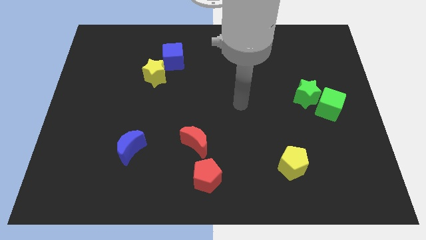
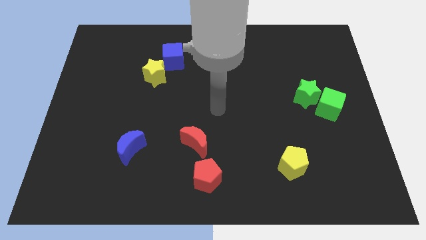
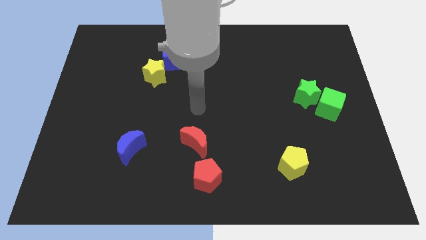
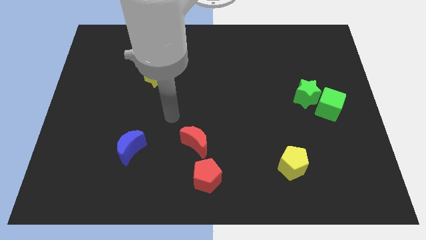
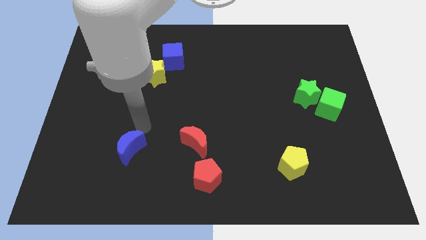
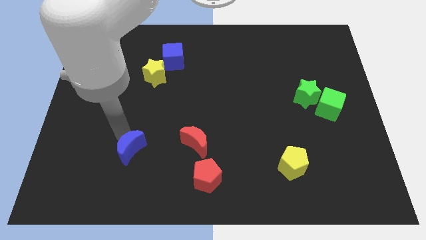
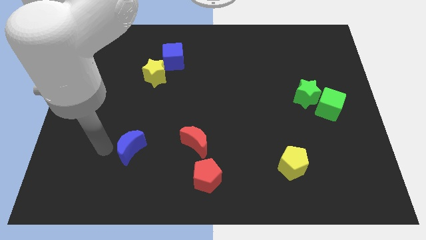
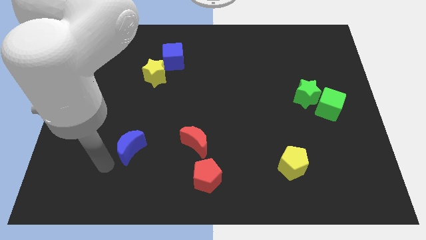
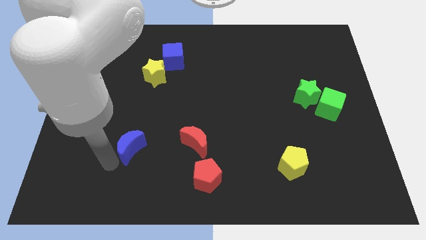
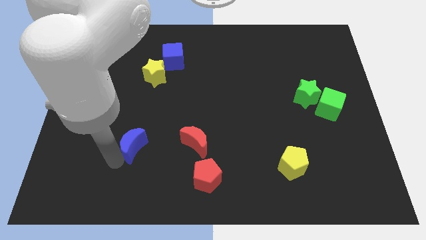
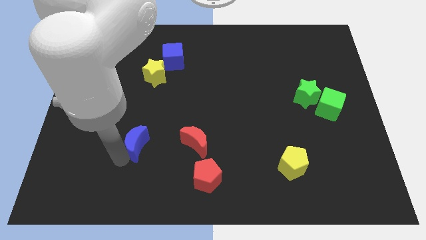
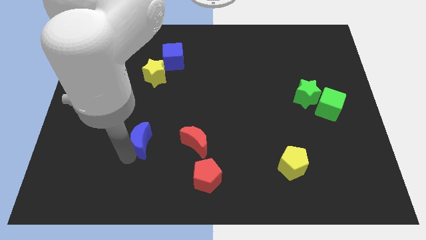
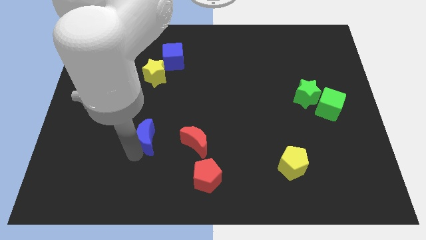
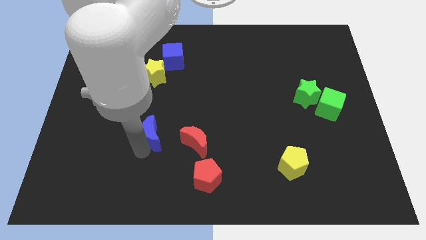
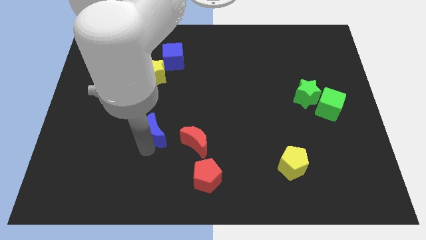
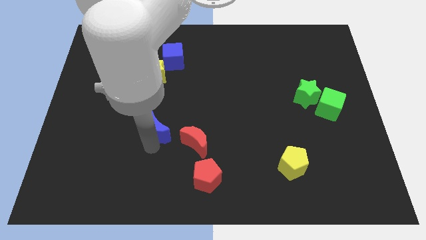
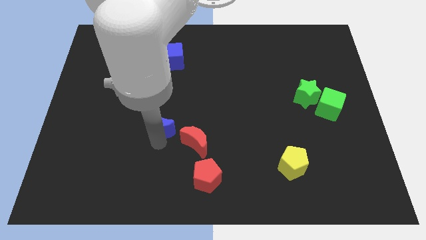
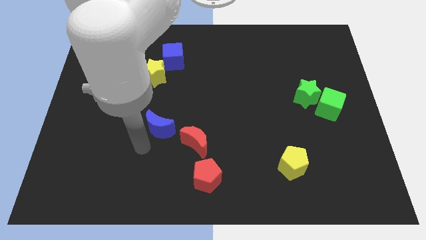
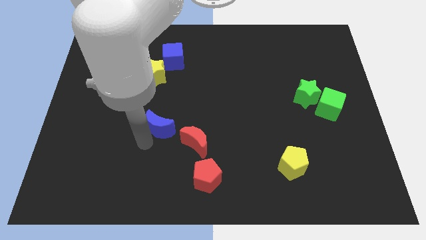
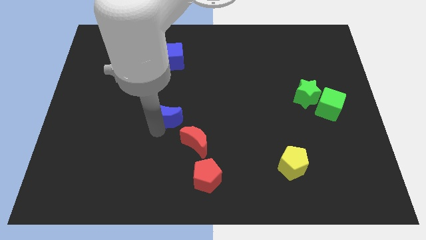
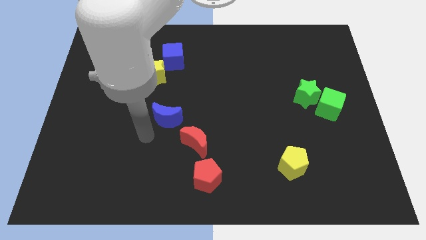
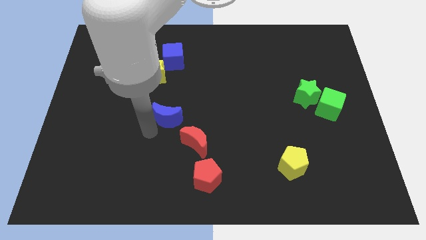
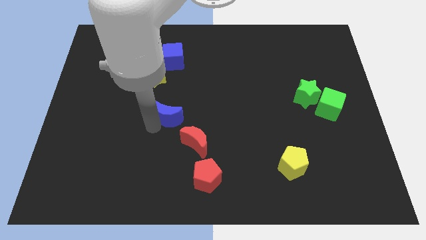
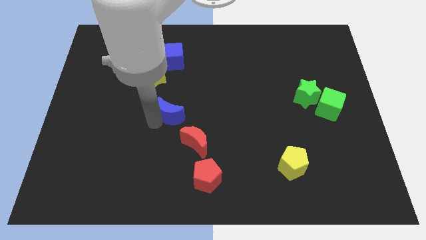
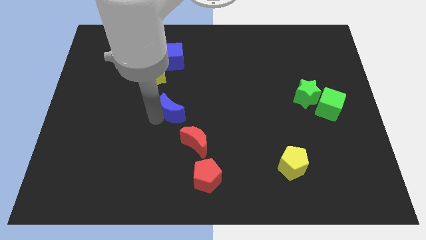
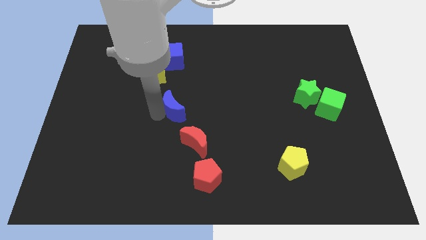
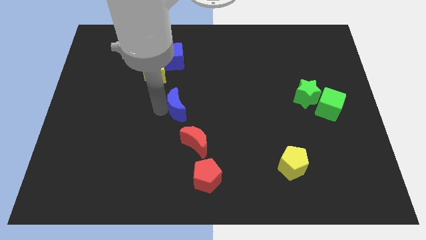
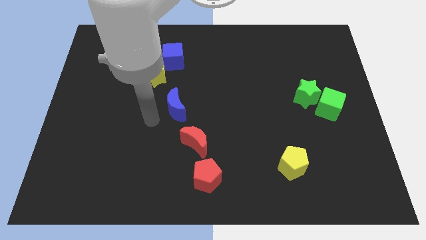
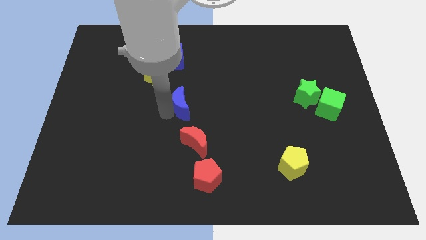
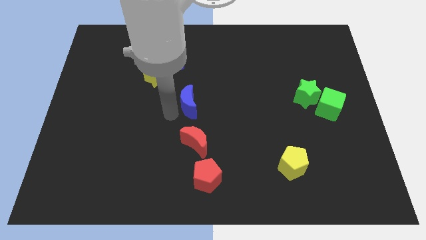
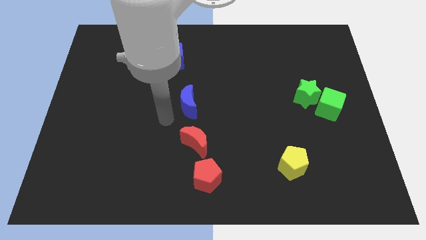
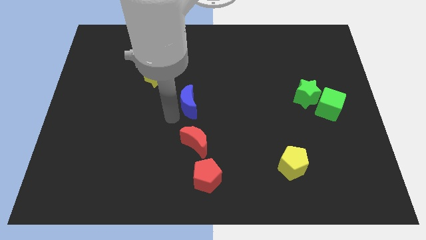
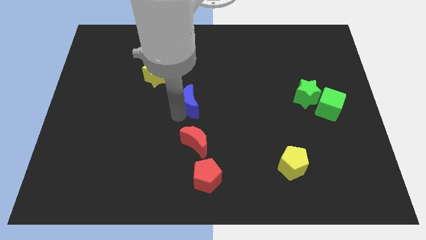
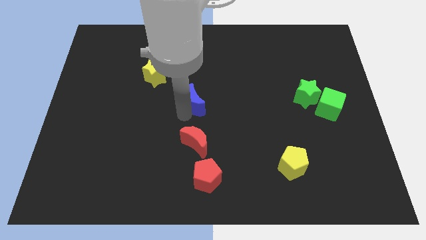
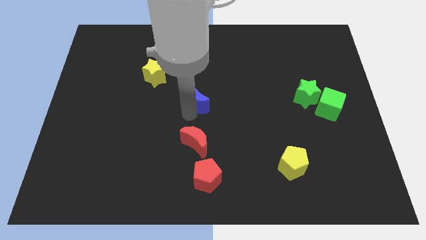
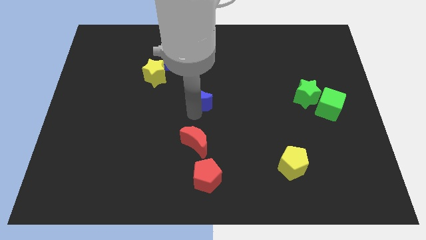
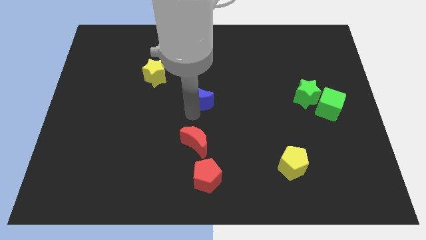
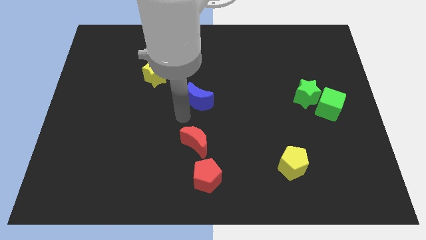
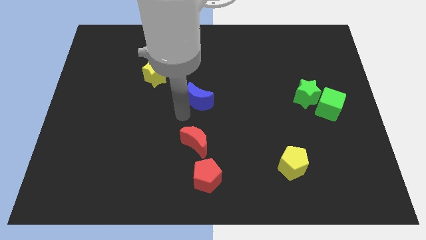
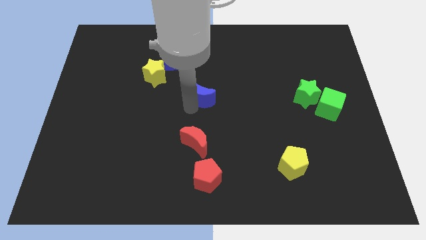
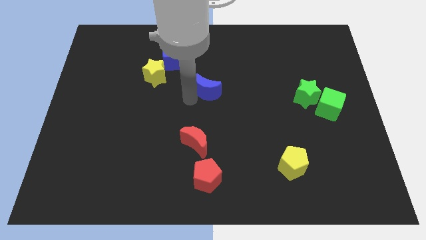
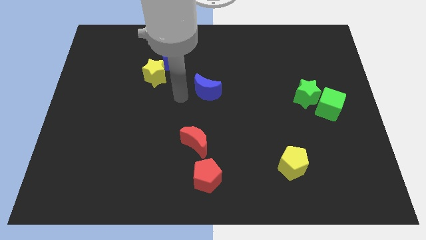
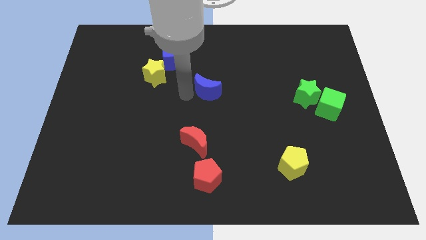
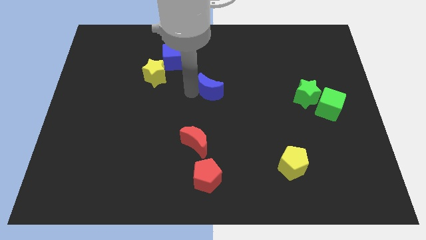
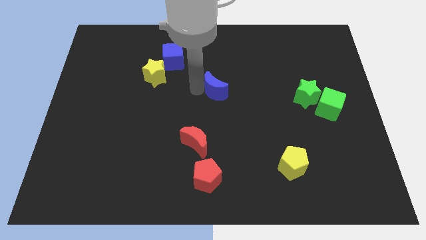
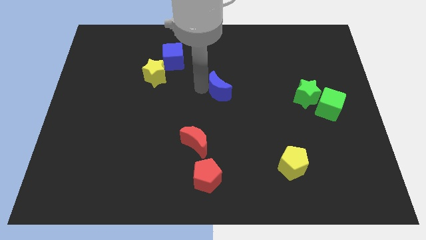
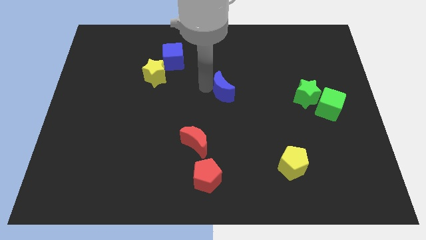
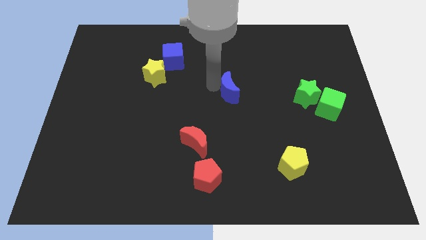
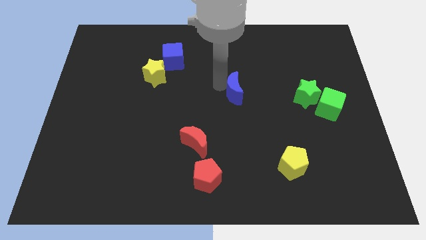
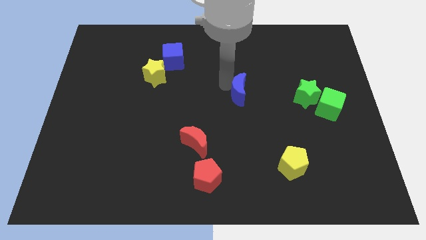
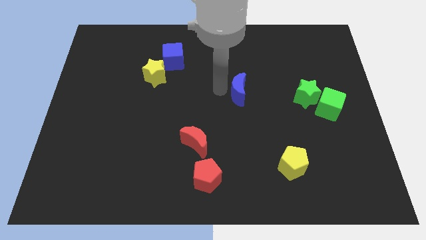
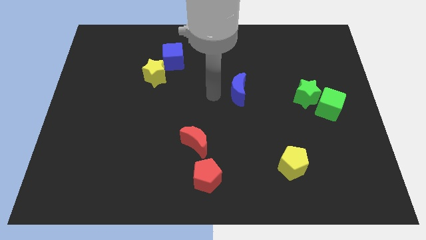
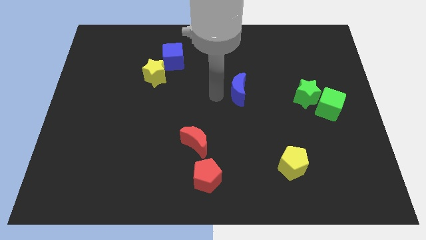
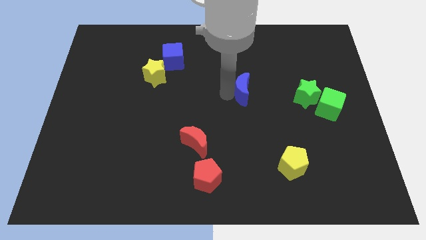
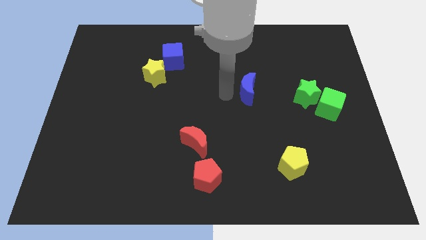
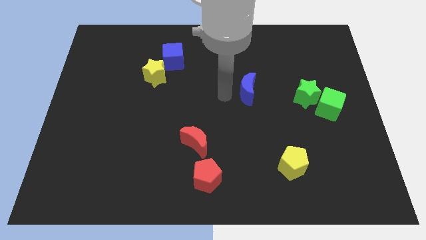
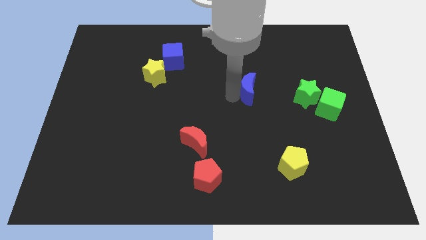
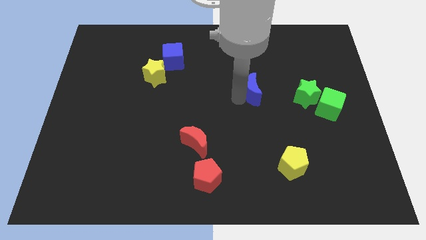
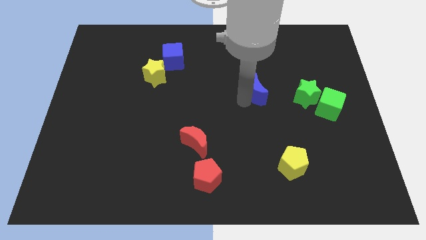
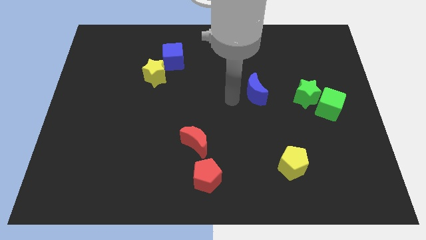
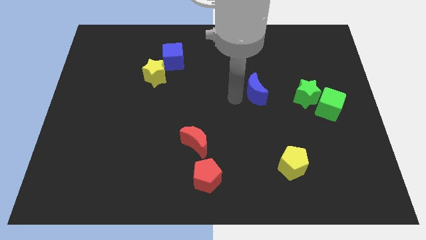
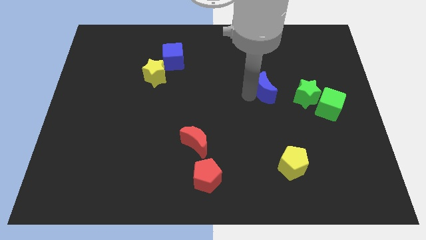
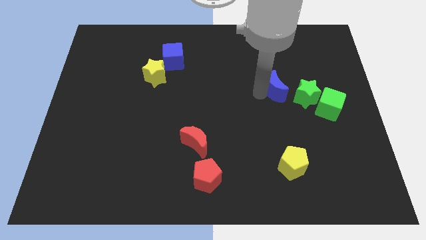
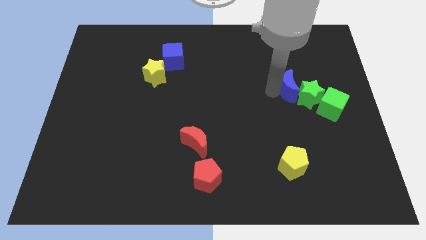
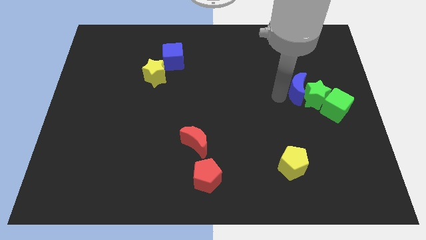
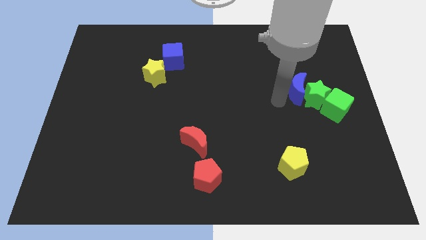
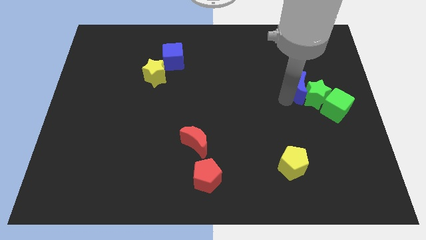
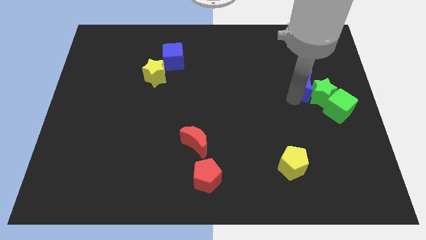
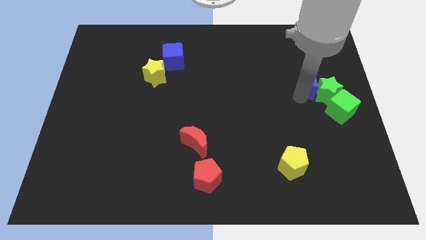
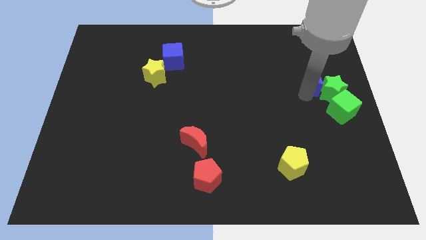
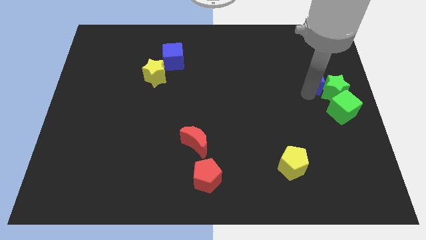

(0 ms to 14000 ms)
put the blue moon to the top side of the green cube
